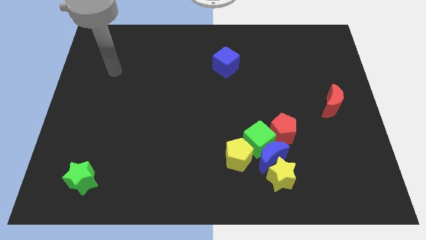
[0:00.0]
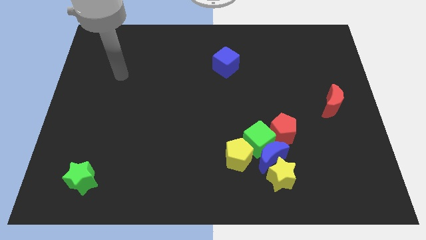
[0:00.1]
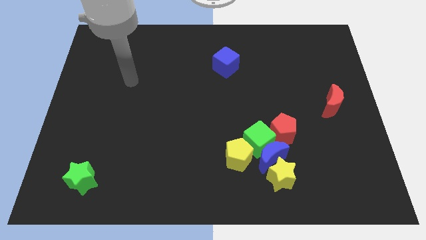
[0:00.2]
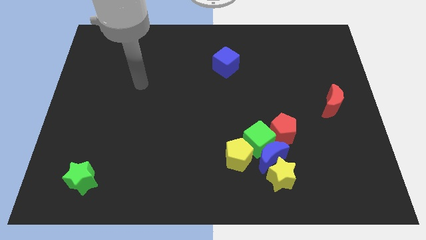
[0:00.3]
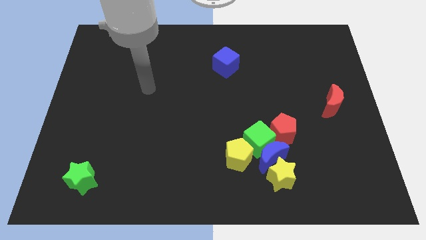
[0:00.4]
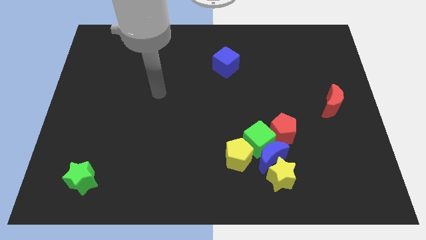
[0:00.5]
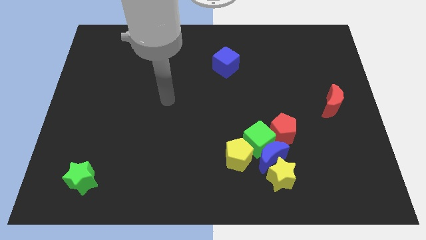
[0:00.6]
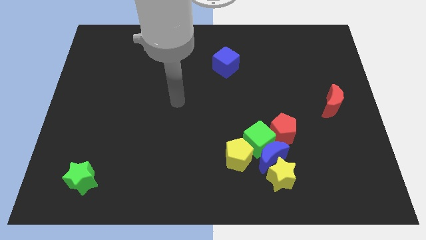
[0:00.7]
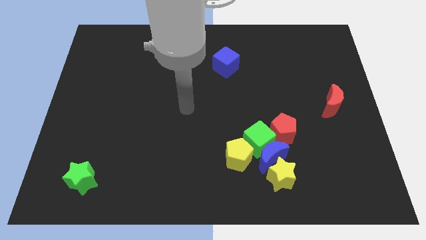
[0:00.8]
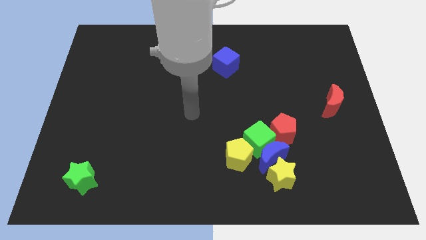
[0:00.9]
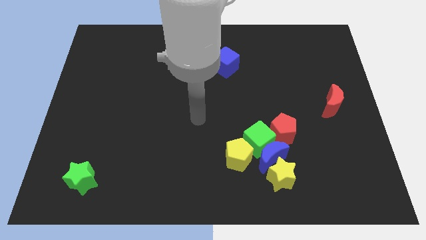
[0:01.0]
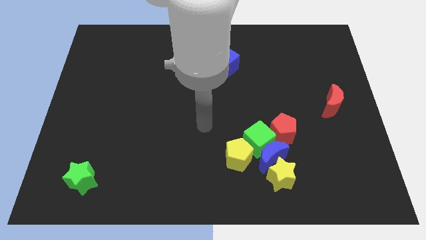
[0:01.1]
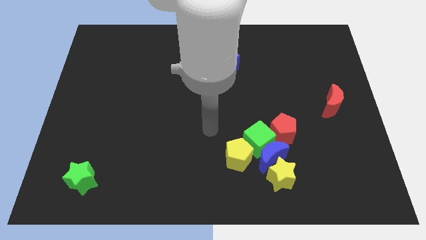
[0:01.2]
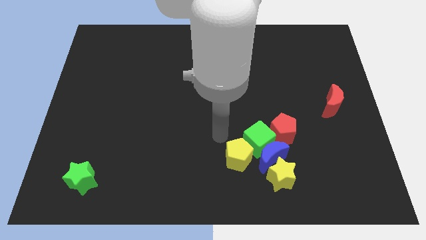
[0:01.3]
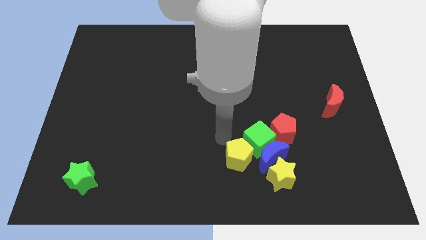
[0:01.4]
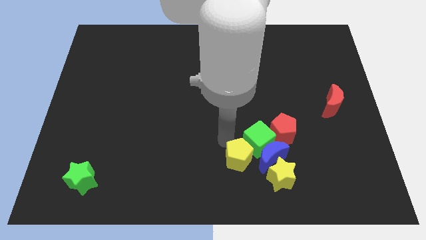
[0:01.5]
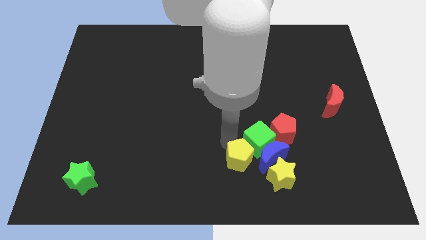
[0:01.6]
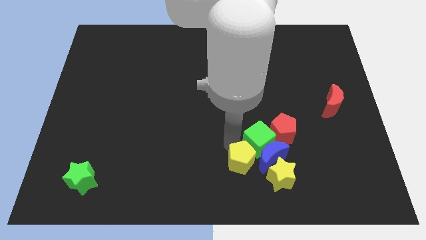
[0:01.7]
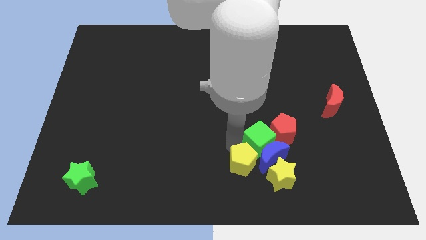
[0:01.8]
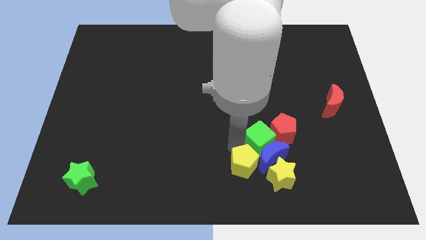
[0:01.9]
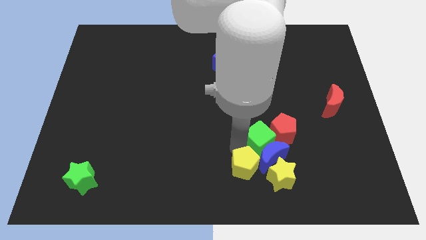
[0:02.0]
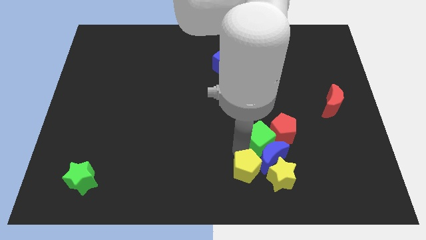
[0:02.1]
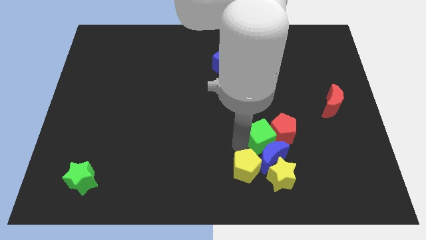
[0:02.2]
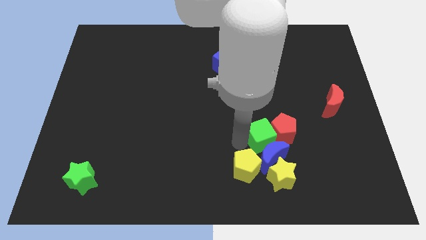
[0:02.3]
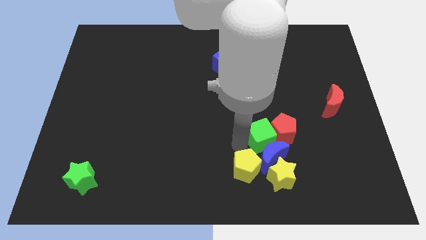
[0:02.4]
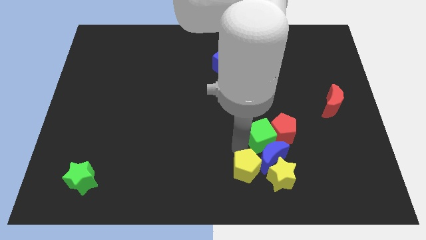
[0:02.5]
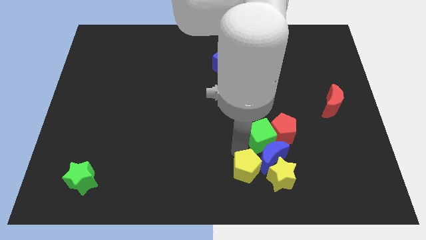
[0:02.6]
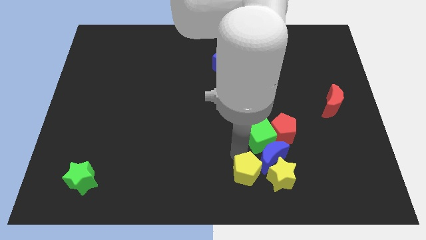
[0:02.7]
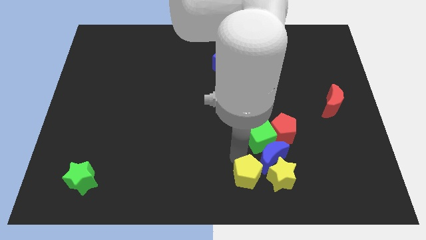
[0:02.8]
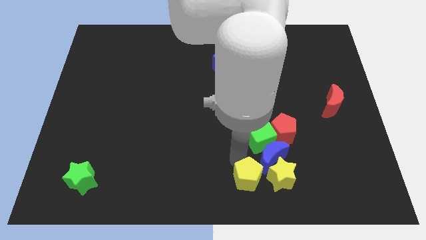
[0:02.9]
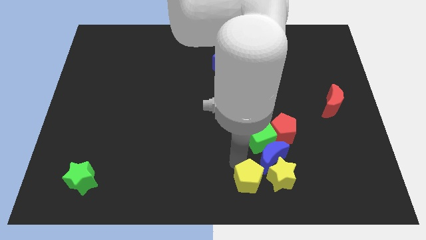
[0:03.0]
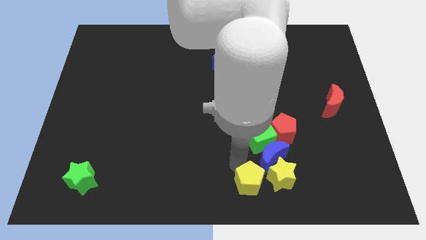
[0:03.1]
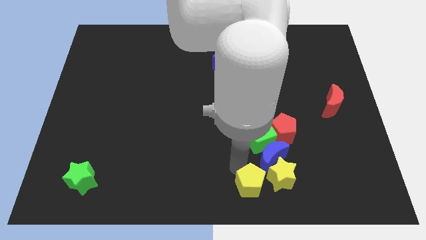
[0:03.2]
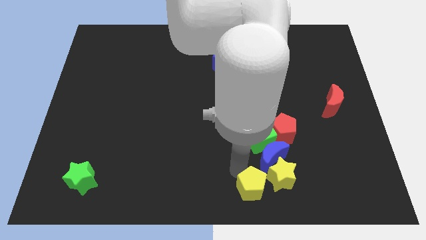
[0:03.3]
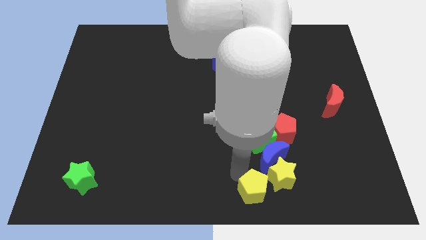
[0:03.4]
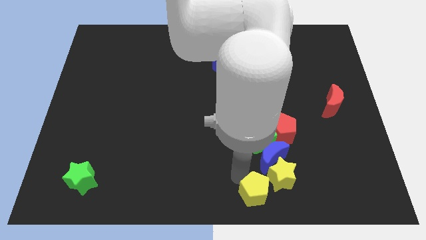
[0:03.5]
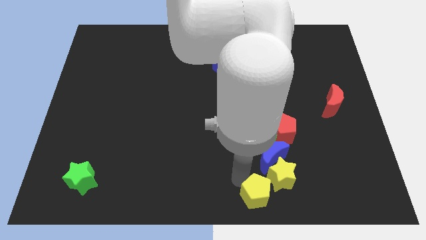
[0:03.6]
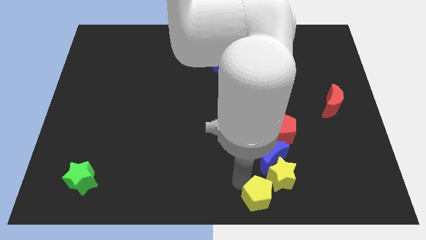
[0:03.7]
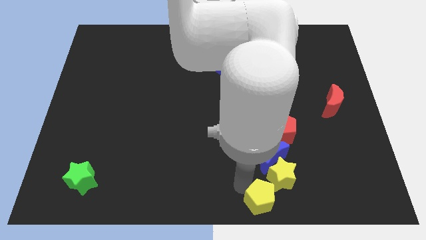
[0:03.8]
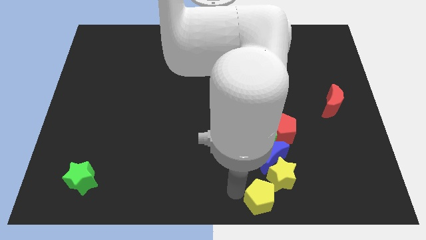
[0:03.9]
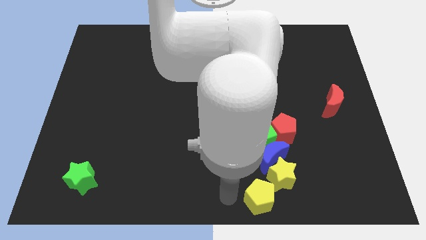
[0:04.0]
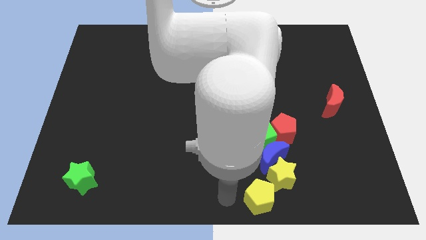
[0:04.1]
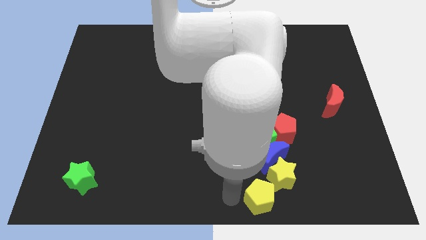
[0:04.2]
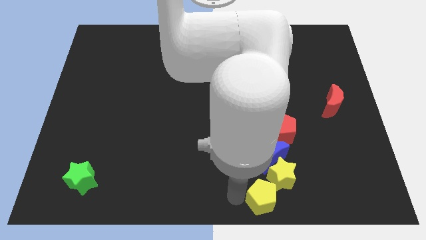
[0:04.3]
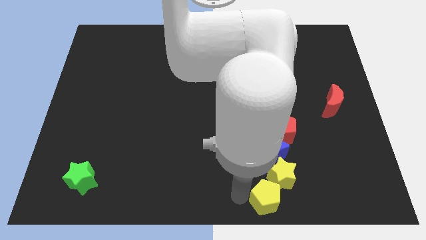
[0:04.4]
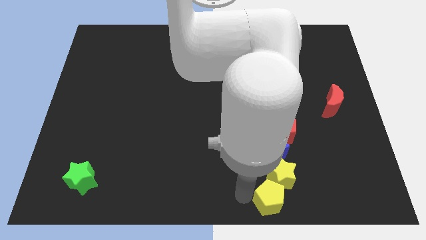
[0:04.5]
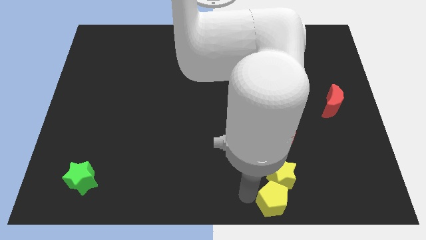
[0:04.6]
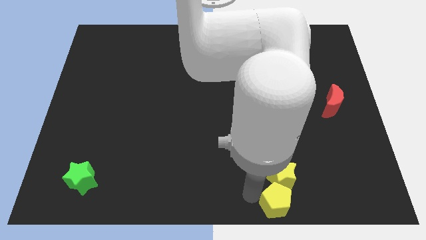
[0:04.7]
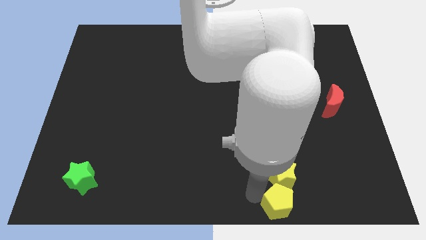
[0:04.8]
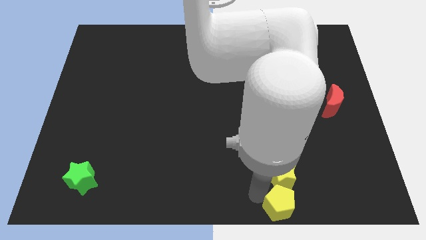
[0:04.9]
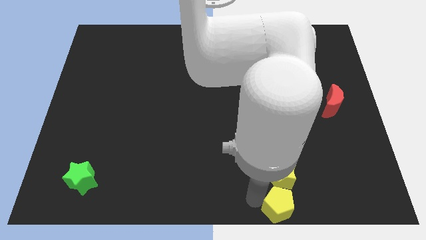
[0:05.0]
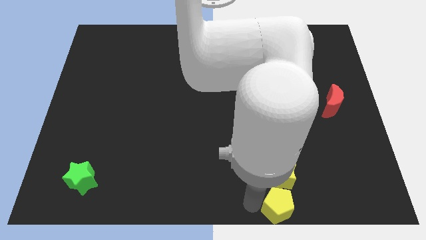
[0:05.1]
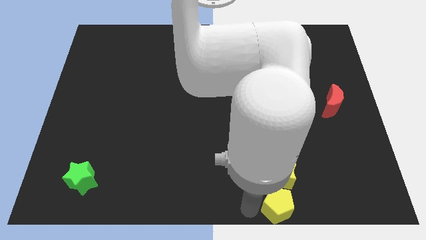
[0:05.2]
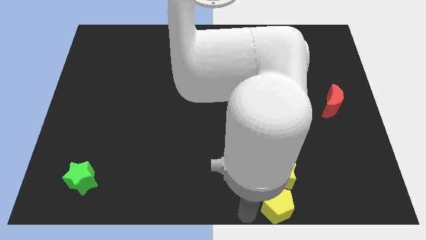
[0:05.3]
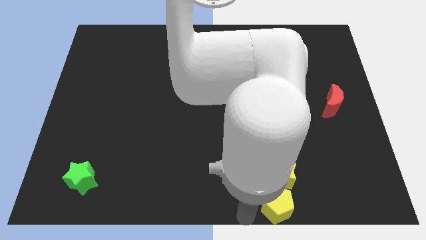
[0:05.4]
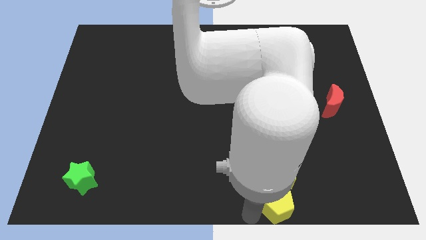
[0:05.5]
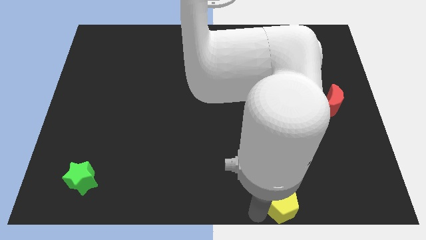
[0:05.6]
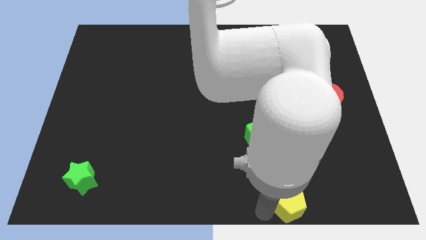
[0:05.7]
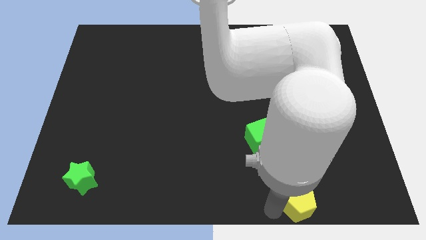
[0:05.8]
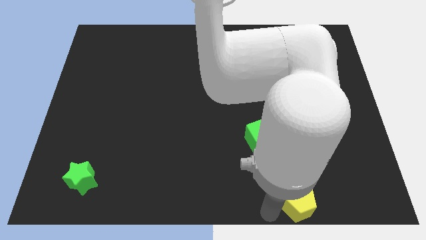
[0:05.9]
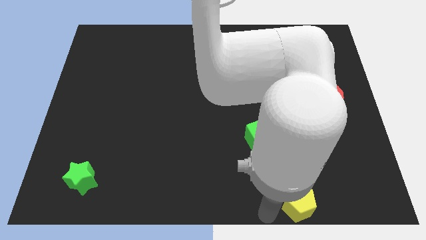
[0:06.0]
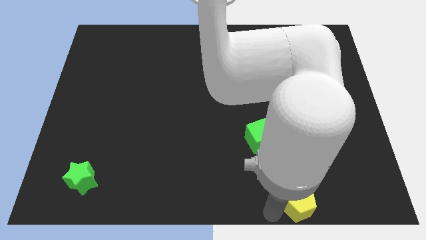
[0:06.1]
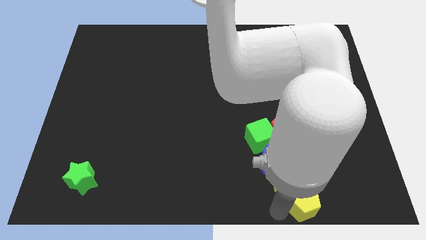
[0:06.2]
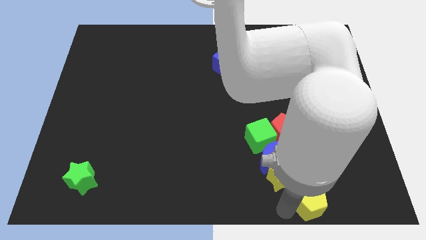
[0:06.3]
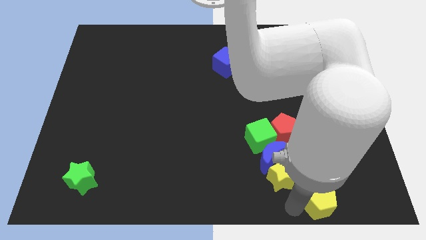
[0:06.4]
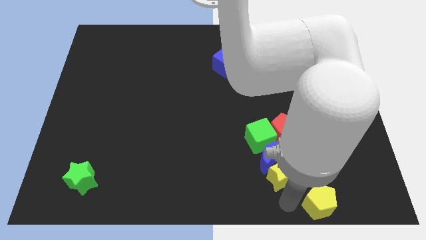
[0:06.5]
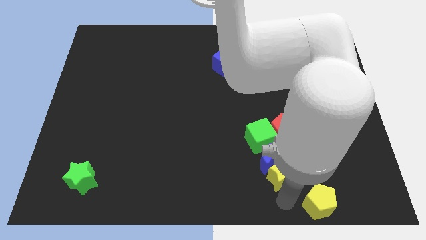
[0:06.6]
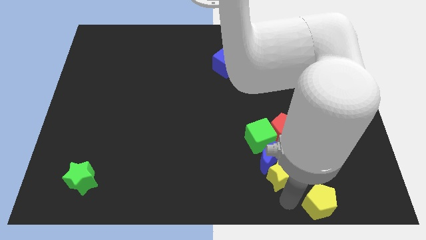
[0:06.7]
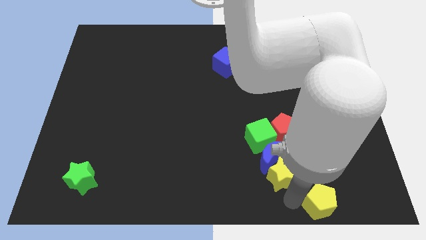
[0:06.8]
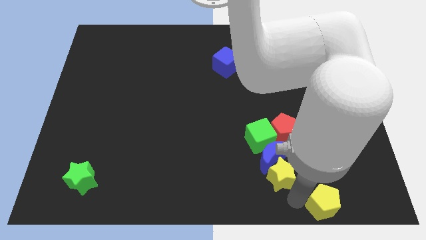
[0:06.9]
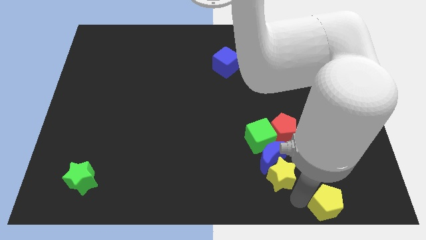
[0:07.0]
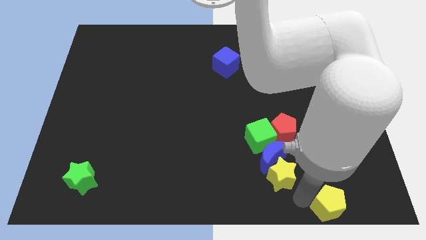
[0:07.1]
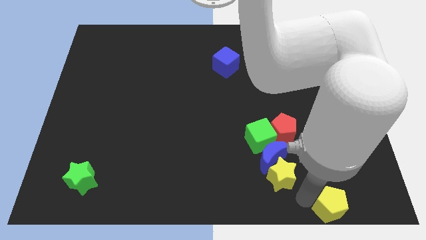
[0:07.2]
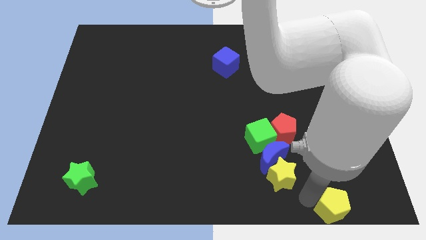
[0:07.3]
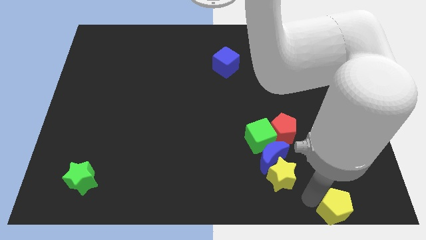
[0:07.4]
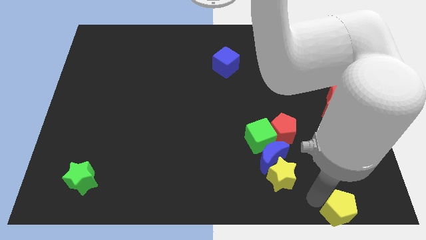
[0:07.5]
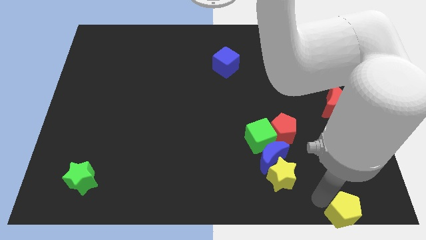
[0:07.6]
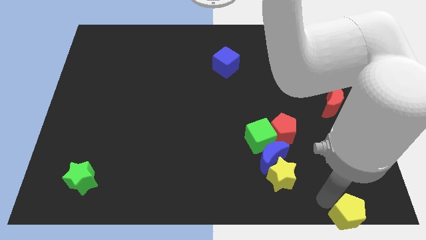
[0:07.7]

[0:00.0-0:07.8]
push the yellow pentagon to the bottom right
